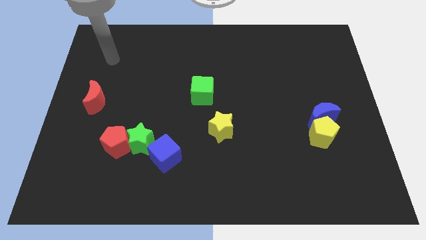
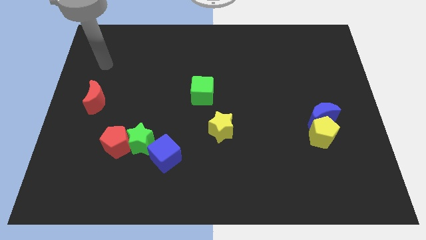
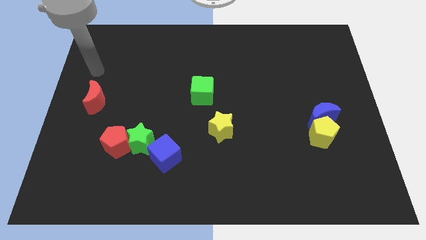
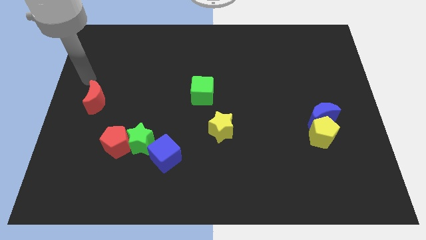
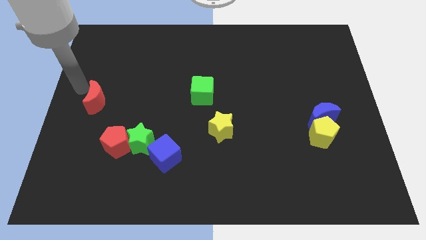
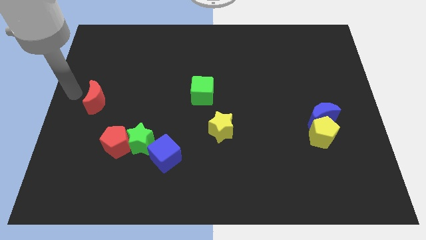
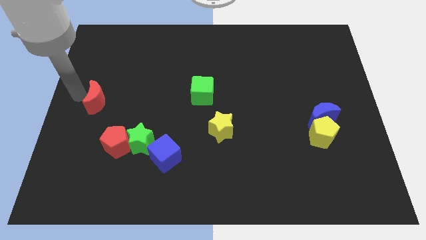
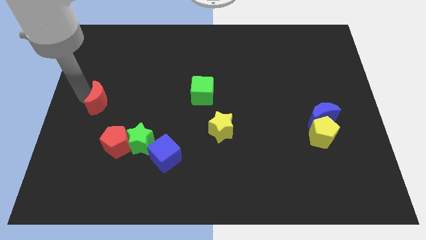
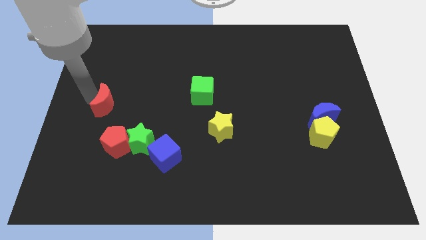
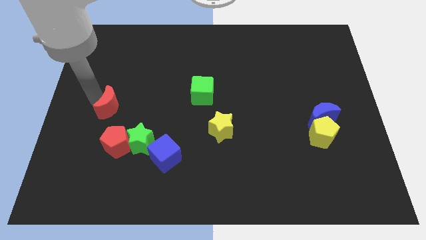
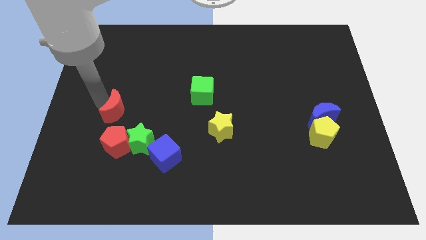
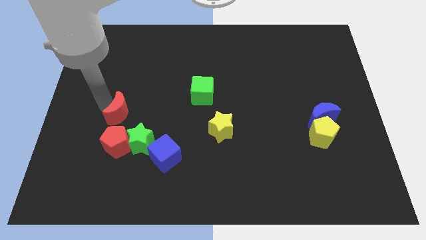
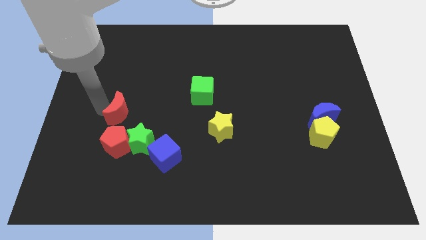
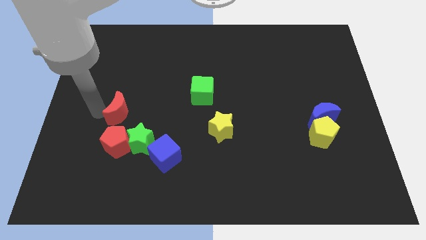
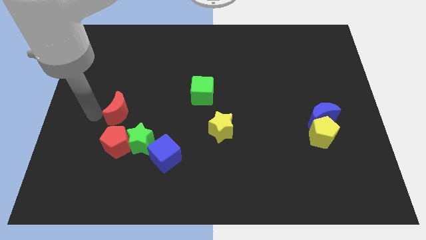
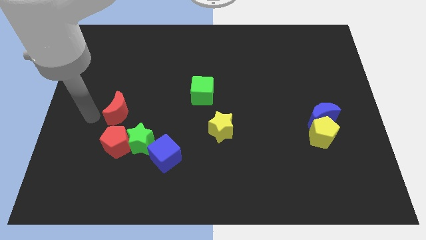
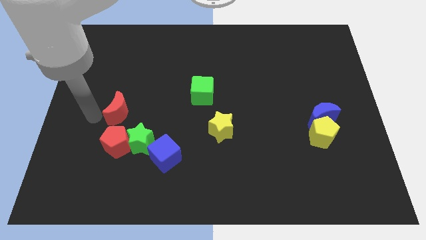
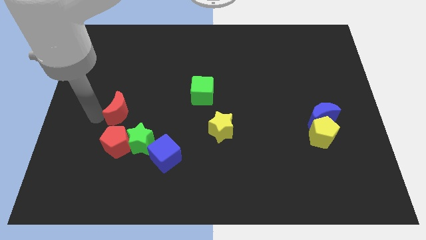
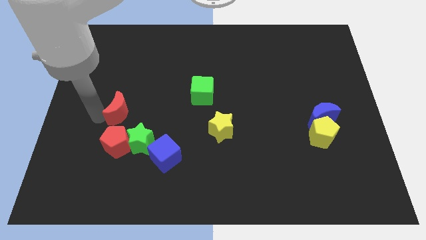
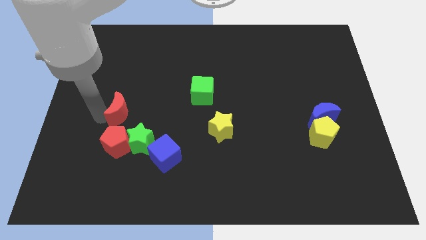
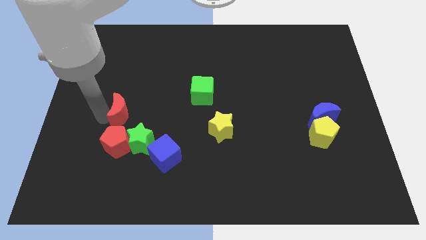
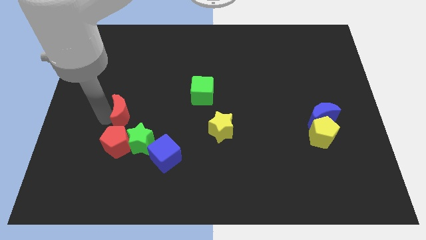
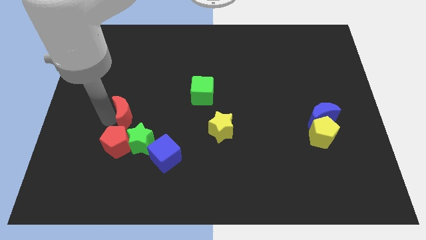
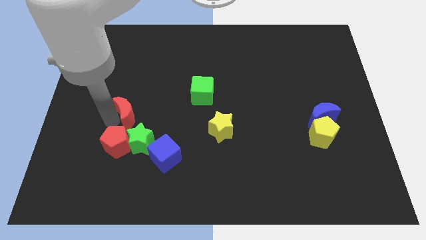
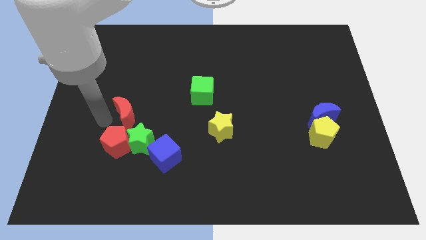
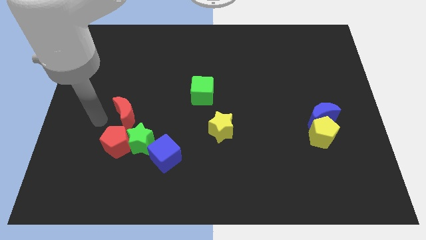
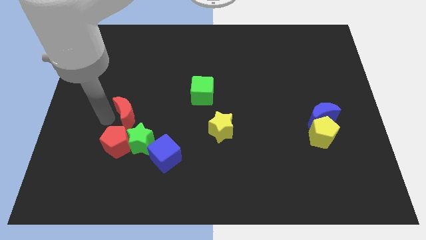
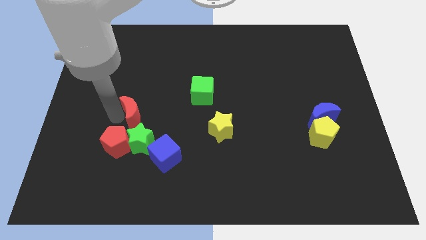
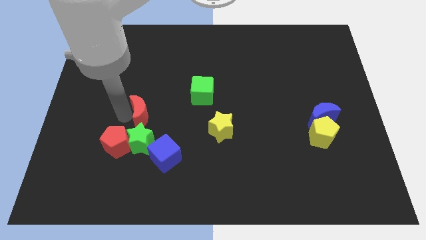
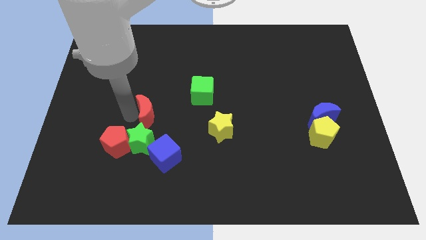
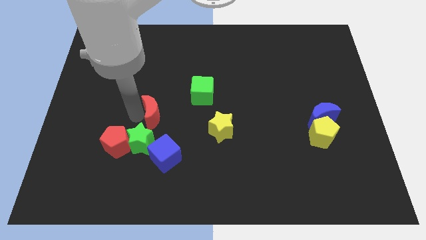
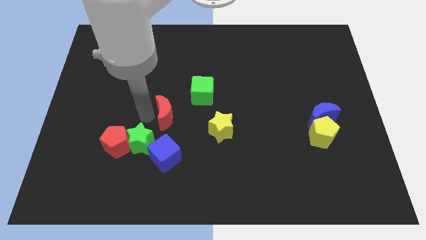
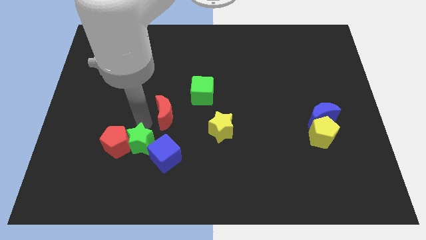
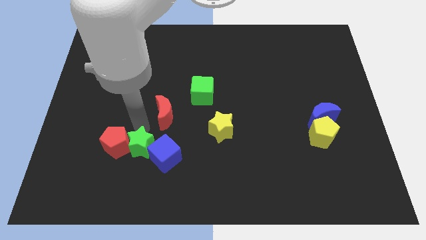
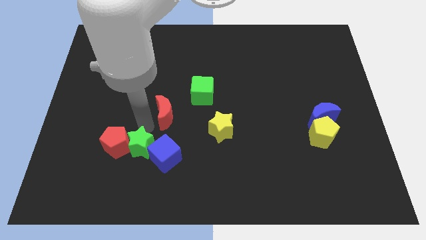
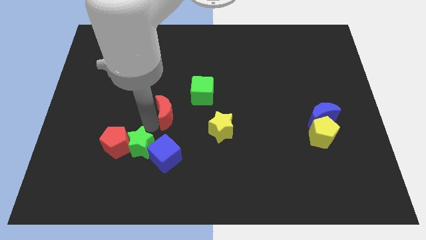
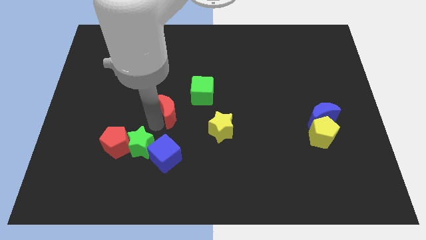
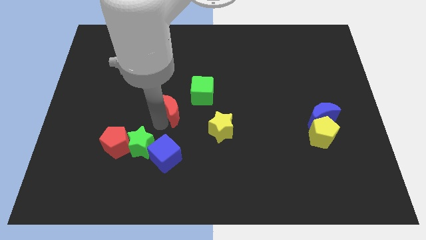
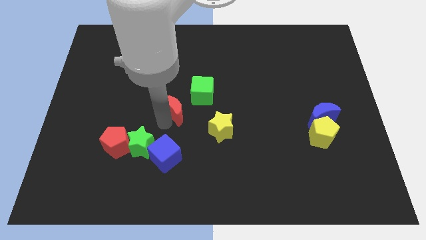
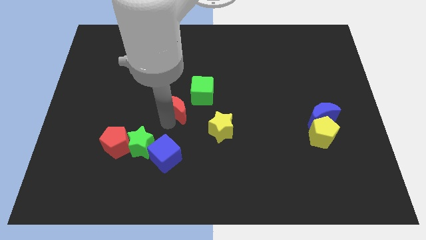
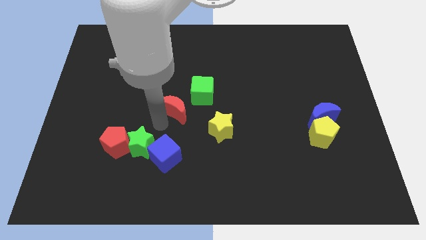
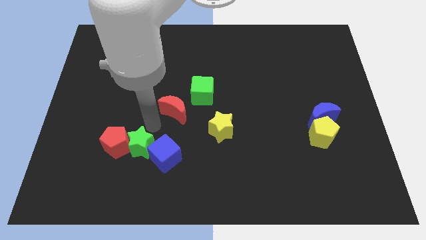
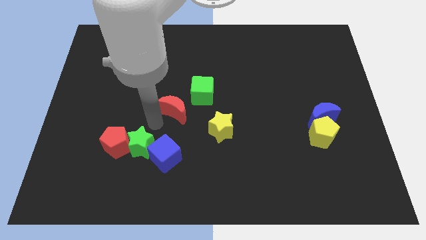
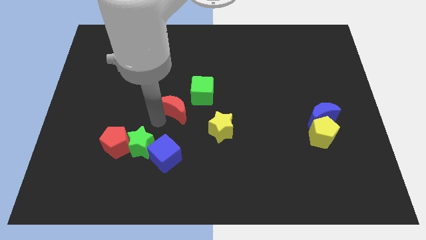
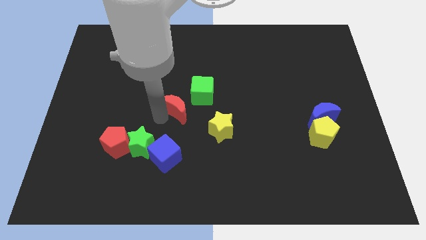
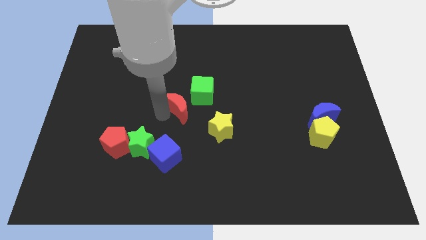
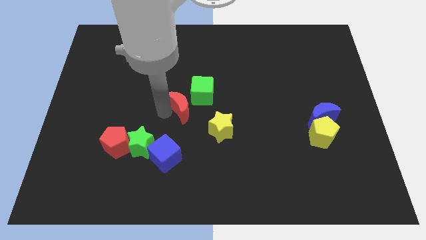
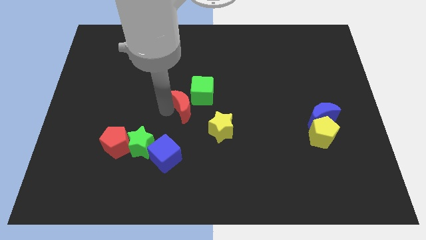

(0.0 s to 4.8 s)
put the red moon close to the green cube

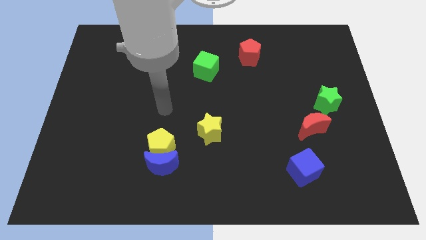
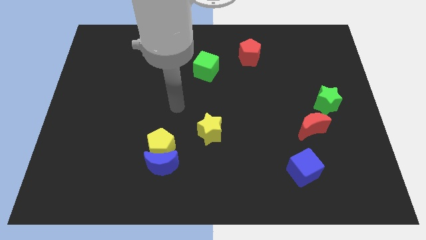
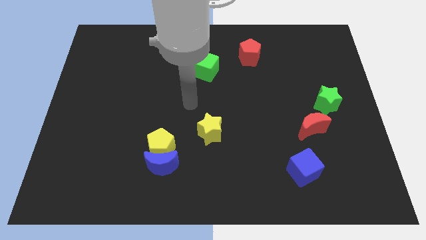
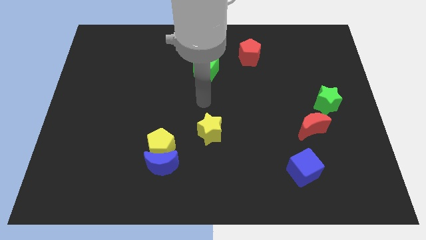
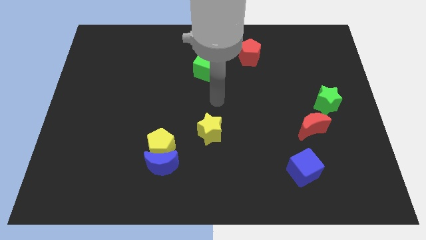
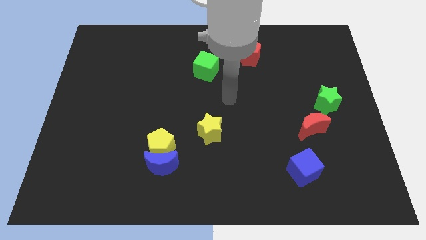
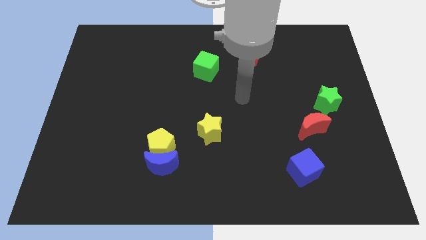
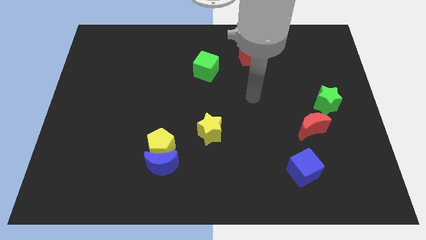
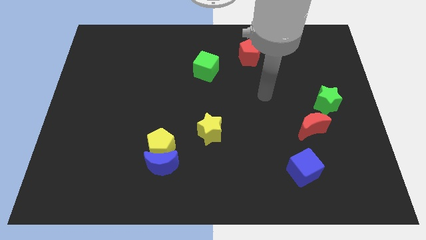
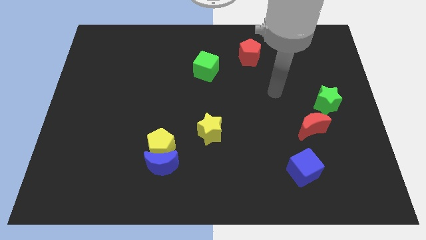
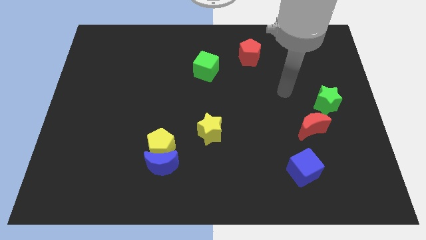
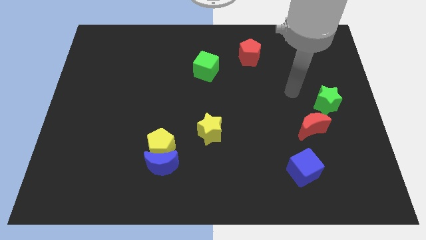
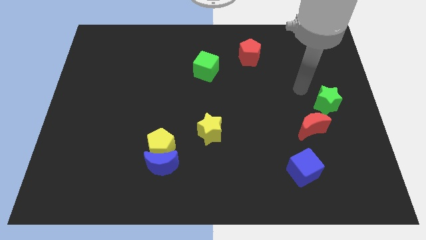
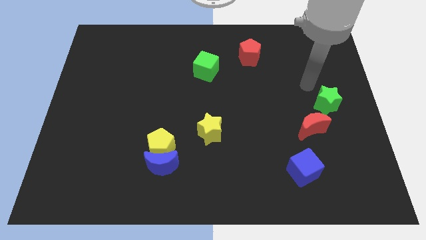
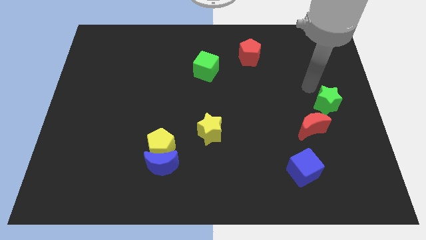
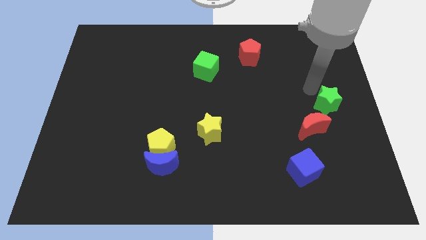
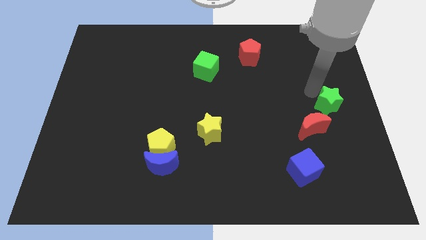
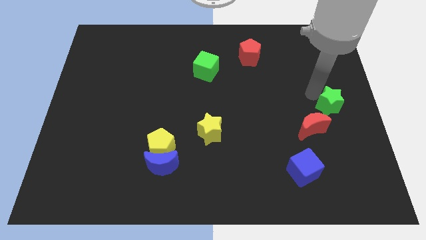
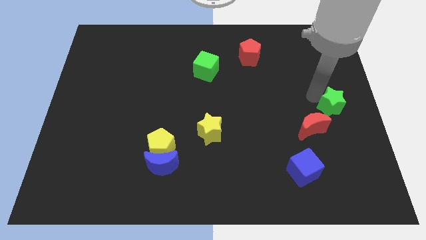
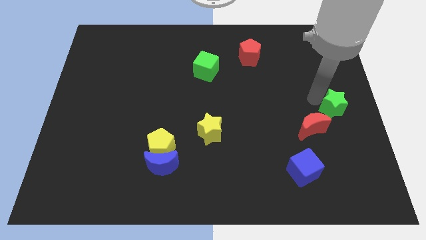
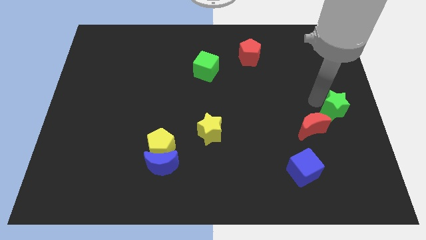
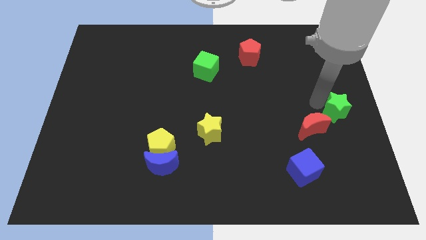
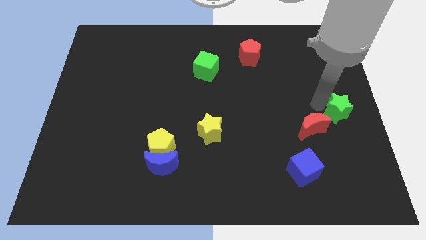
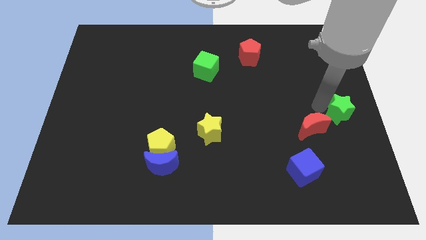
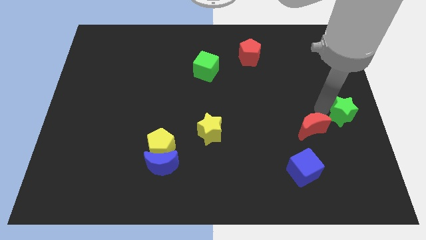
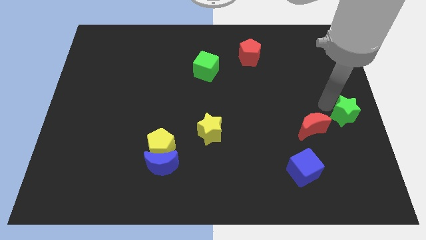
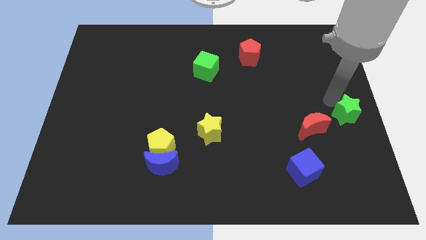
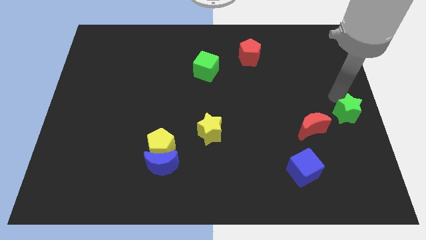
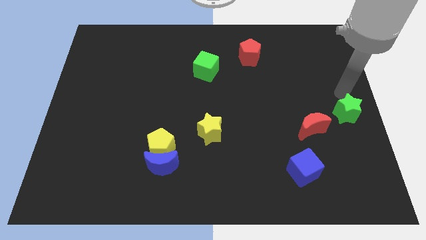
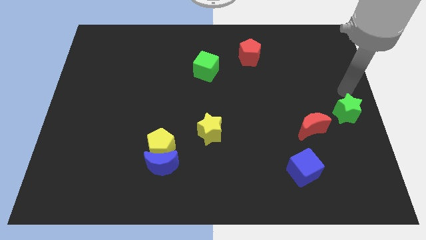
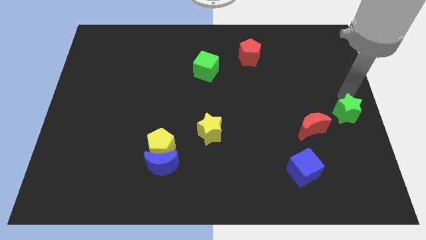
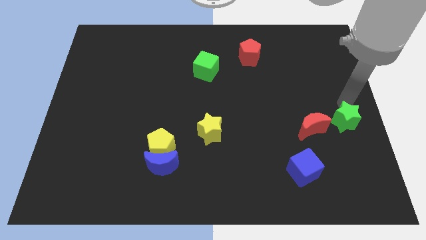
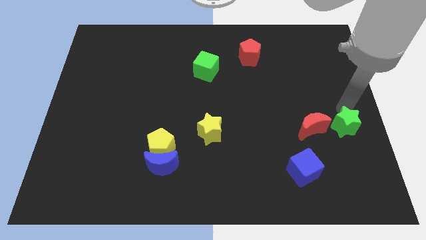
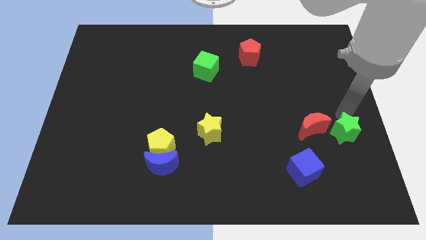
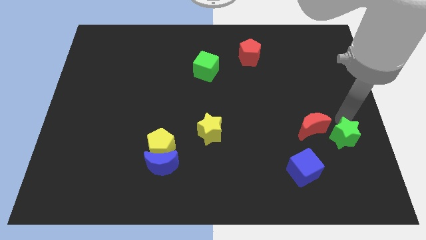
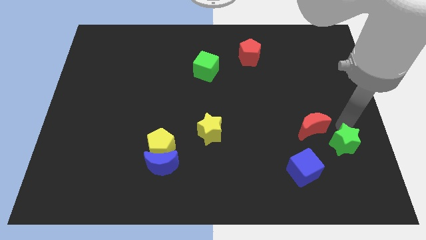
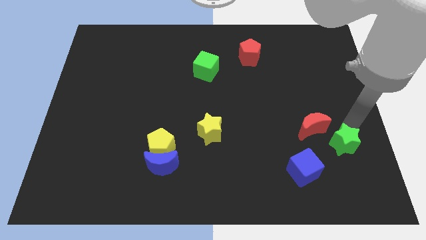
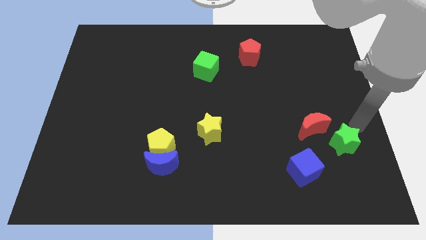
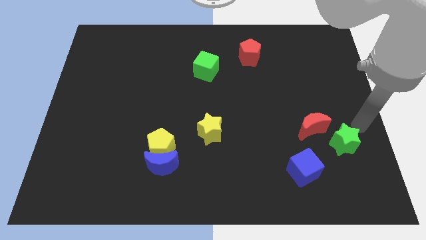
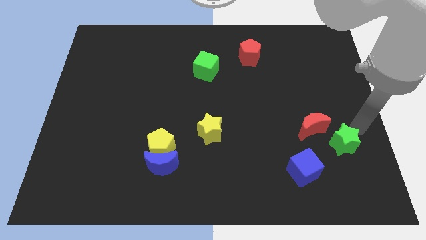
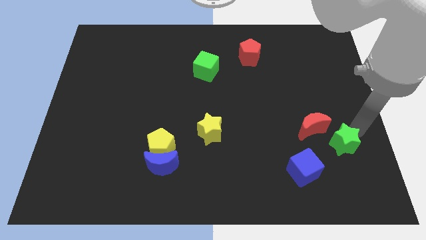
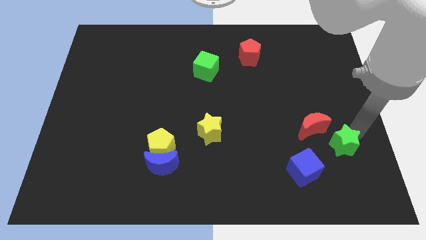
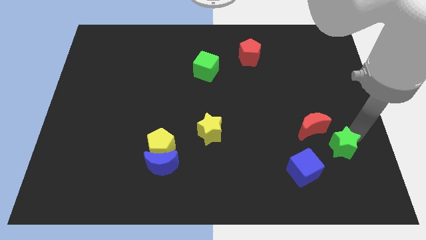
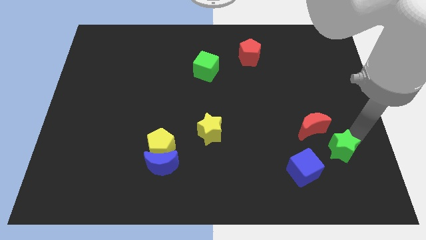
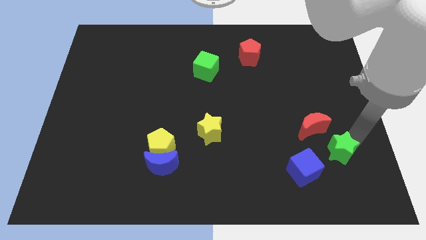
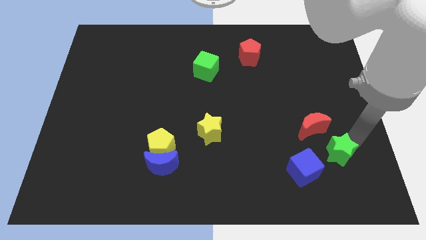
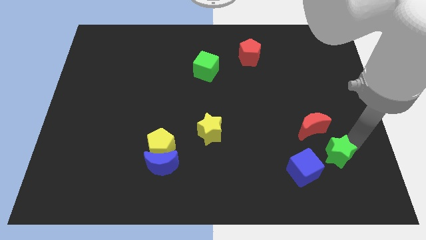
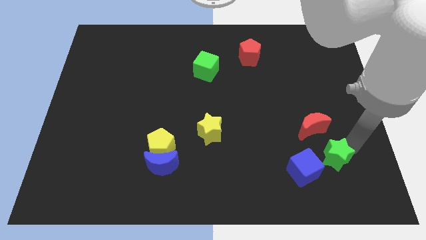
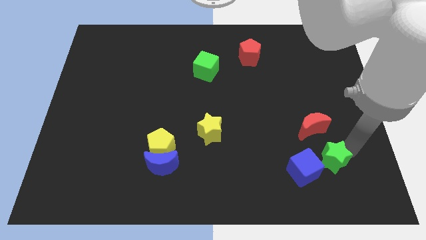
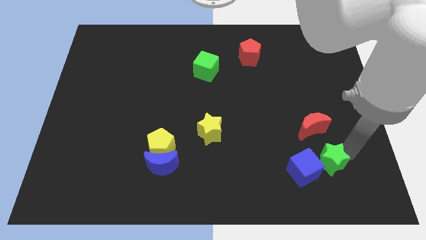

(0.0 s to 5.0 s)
move the green star towards the blue cube
